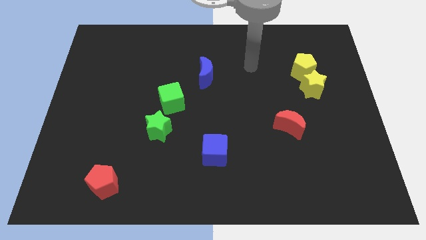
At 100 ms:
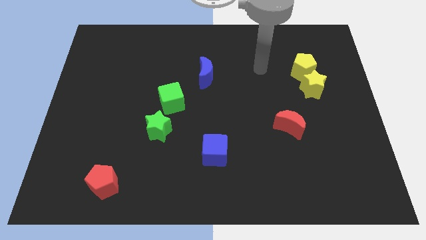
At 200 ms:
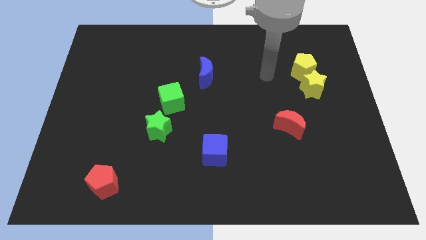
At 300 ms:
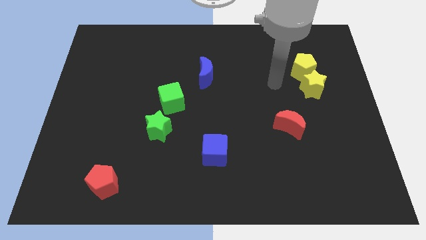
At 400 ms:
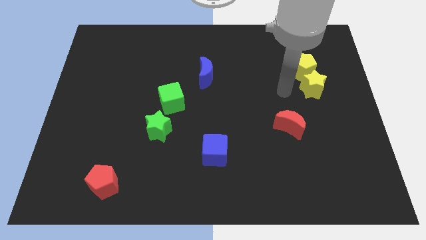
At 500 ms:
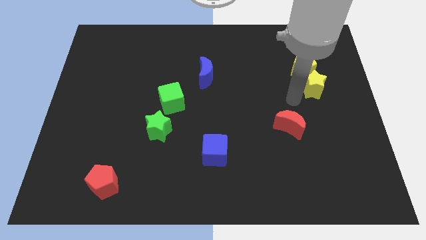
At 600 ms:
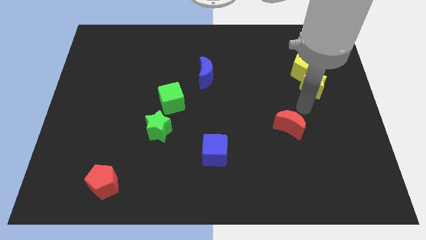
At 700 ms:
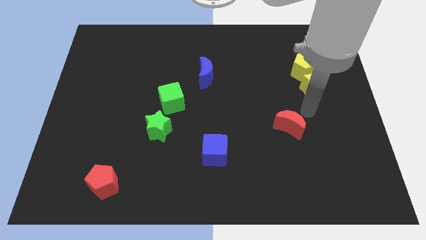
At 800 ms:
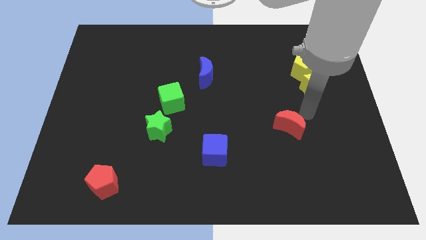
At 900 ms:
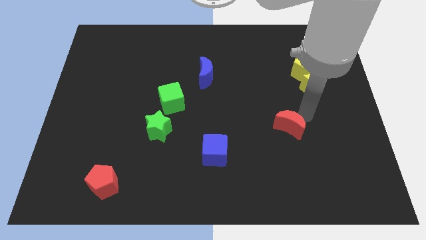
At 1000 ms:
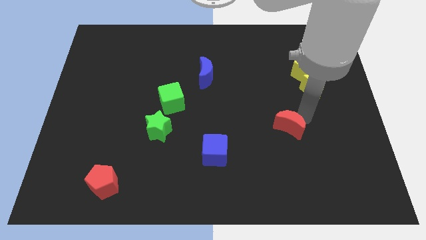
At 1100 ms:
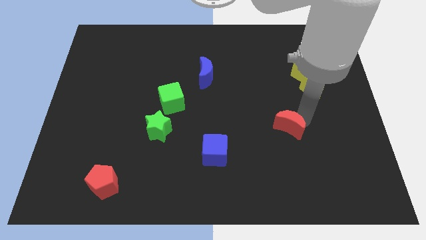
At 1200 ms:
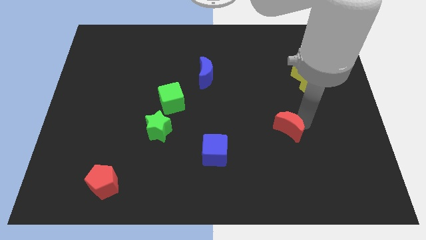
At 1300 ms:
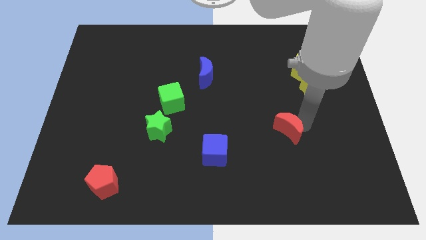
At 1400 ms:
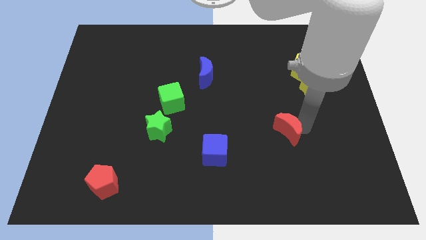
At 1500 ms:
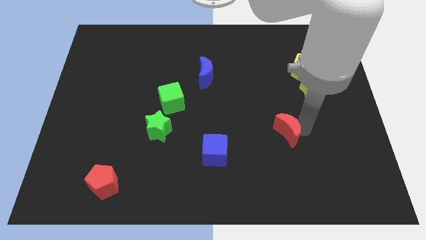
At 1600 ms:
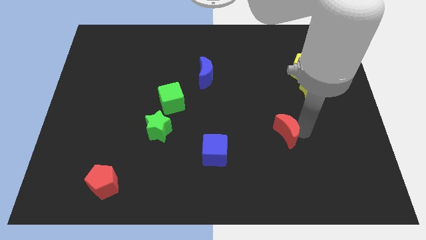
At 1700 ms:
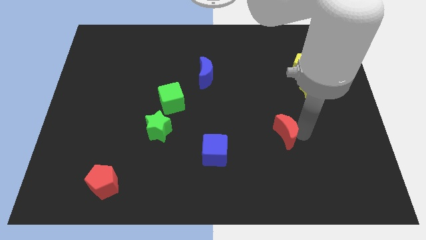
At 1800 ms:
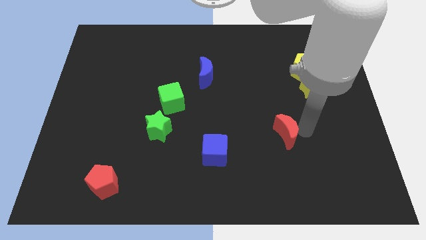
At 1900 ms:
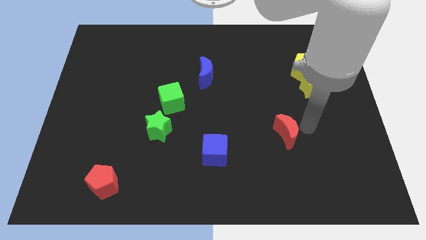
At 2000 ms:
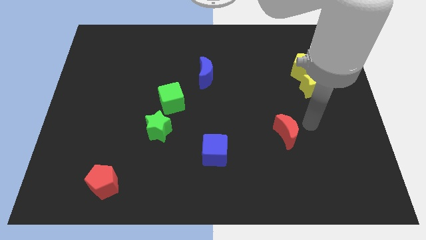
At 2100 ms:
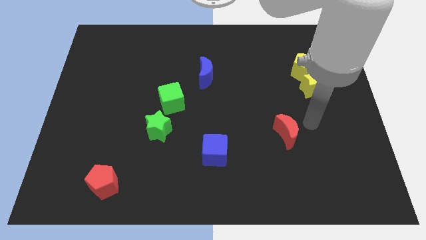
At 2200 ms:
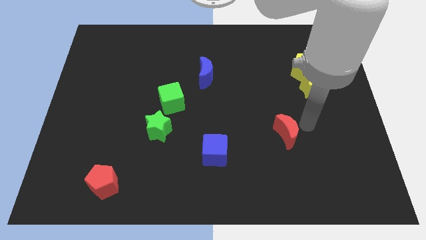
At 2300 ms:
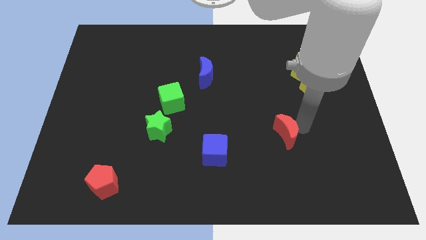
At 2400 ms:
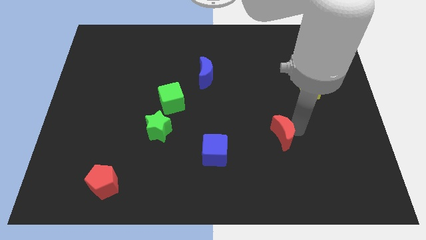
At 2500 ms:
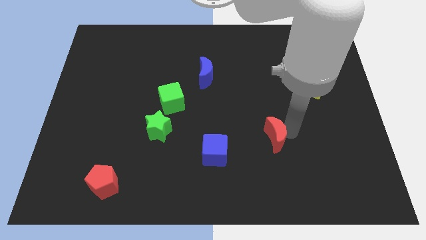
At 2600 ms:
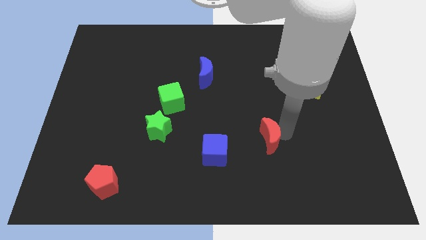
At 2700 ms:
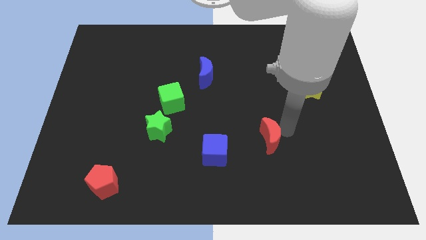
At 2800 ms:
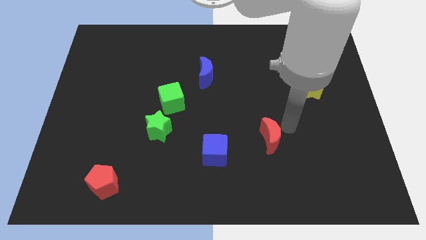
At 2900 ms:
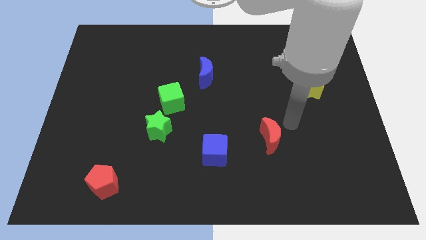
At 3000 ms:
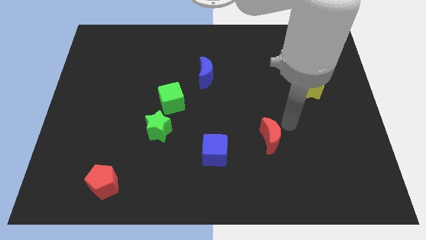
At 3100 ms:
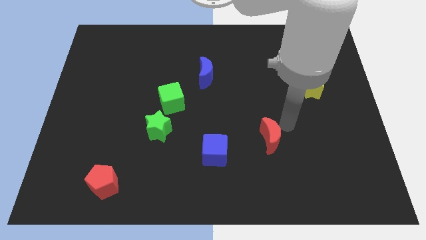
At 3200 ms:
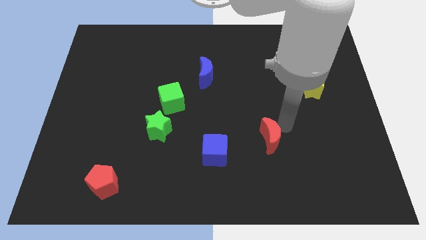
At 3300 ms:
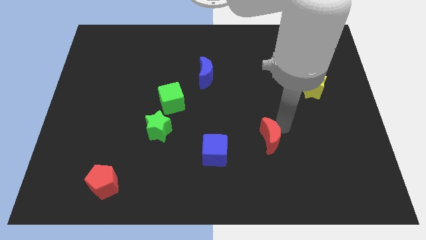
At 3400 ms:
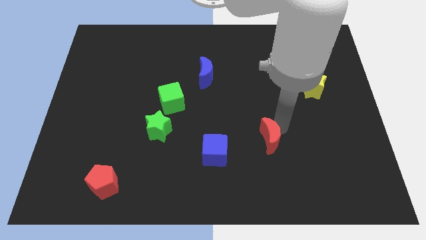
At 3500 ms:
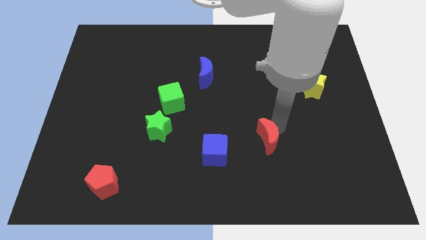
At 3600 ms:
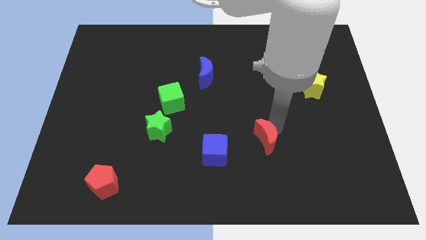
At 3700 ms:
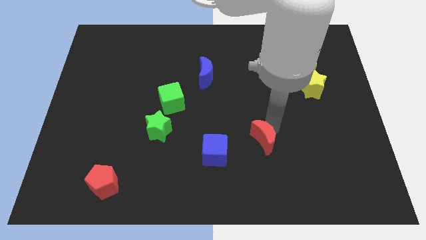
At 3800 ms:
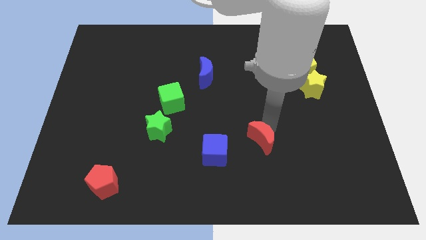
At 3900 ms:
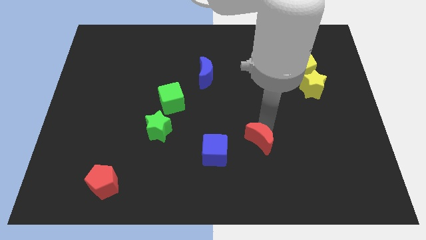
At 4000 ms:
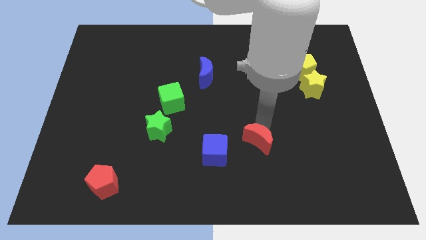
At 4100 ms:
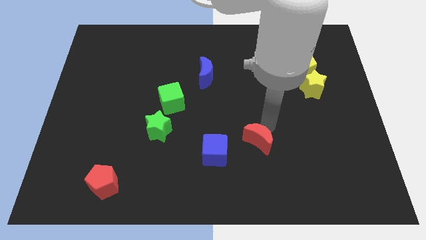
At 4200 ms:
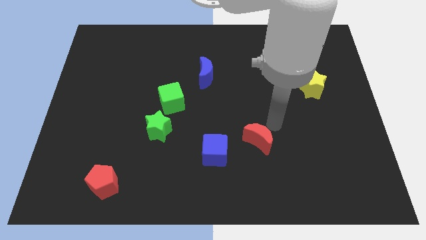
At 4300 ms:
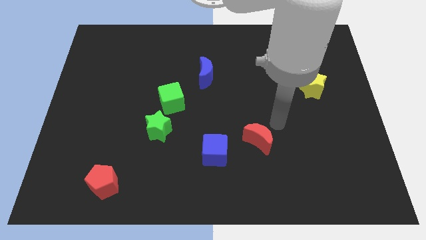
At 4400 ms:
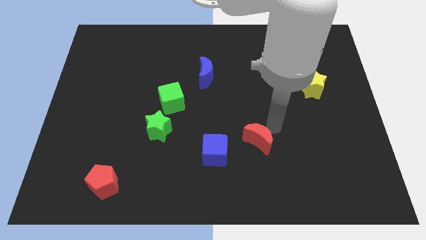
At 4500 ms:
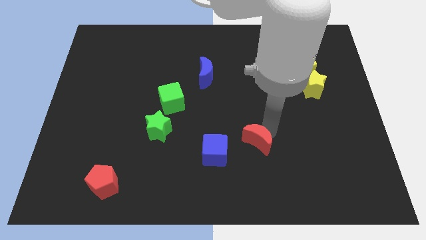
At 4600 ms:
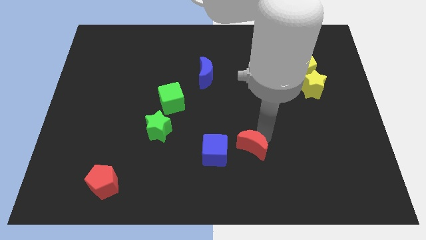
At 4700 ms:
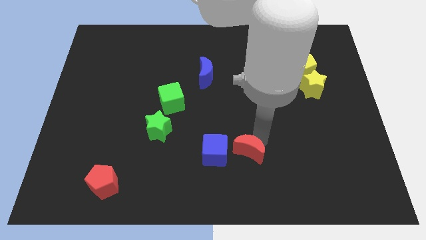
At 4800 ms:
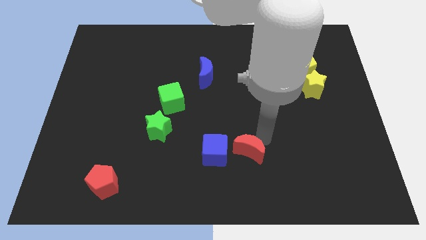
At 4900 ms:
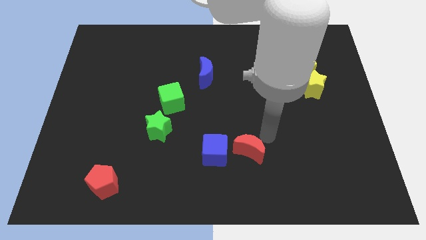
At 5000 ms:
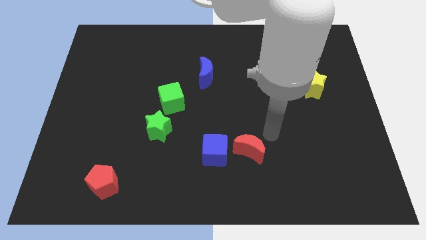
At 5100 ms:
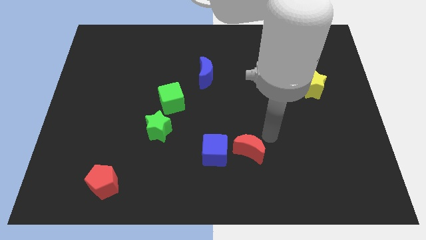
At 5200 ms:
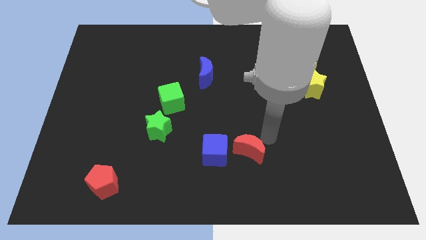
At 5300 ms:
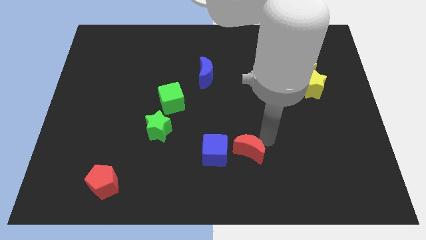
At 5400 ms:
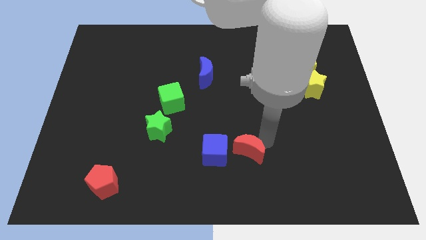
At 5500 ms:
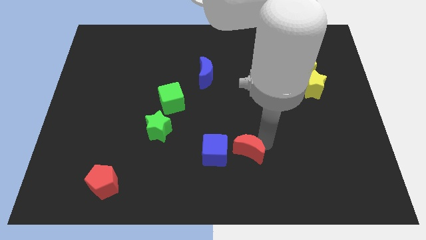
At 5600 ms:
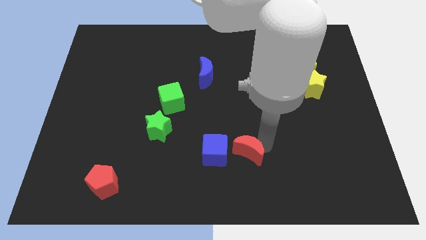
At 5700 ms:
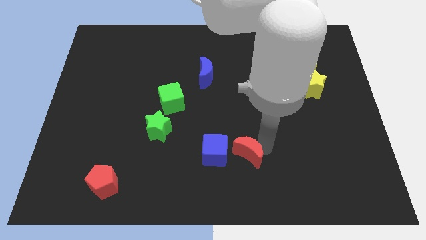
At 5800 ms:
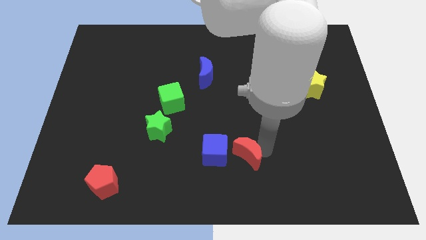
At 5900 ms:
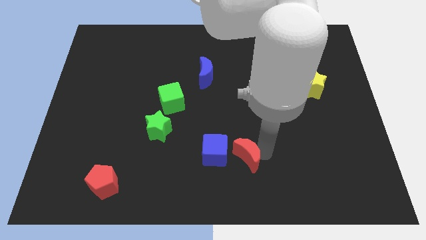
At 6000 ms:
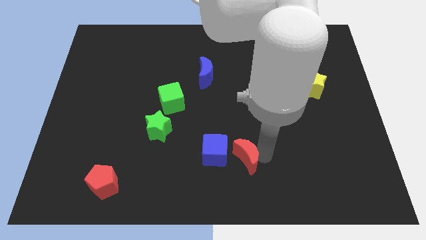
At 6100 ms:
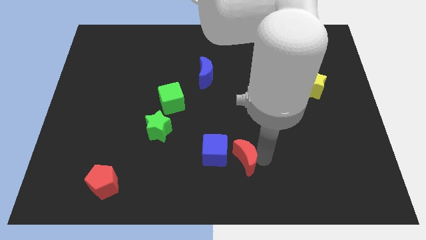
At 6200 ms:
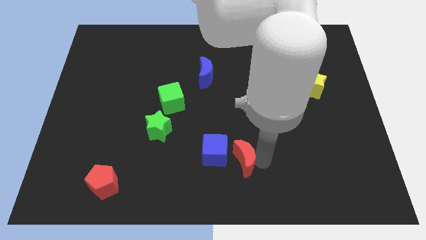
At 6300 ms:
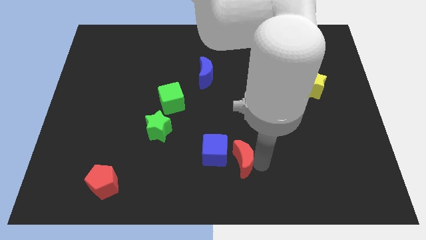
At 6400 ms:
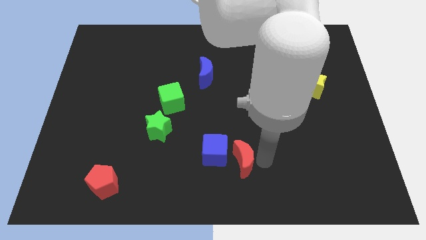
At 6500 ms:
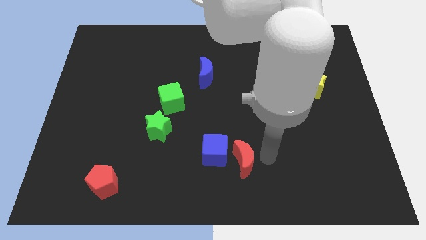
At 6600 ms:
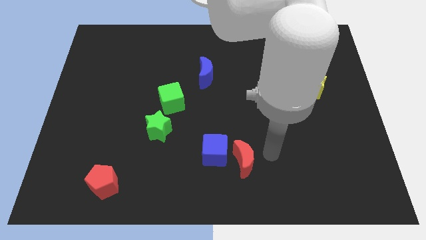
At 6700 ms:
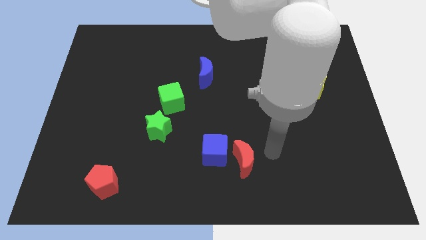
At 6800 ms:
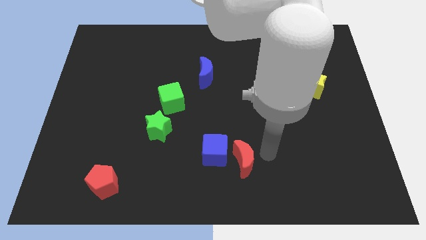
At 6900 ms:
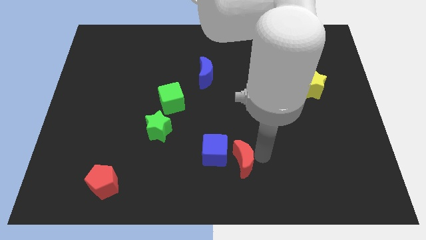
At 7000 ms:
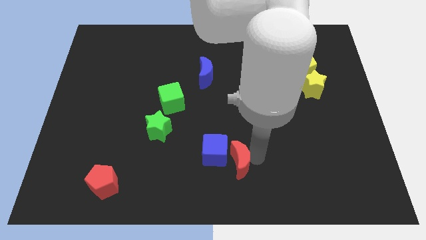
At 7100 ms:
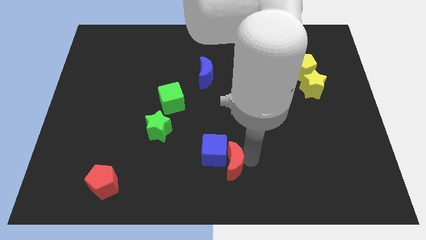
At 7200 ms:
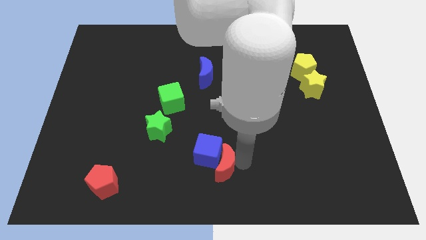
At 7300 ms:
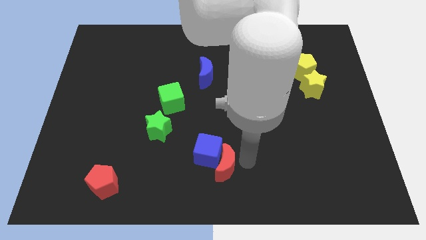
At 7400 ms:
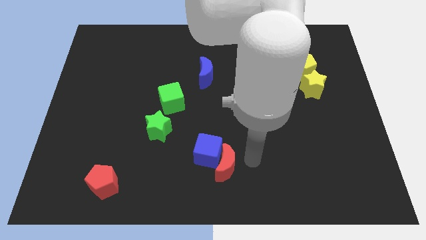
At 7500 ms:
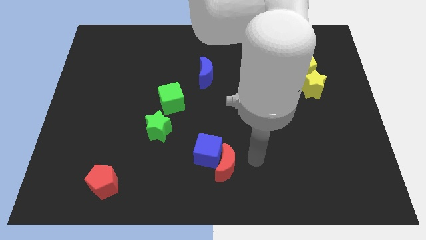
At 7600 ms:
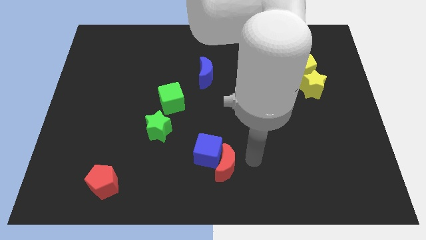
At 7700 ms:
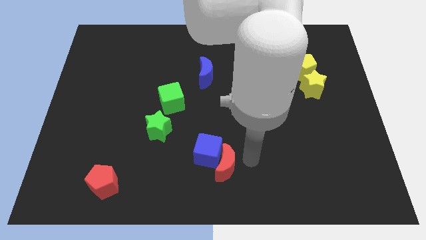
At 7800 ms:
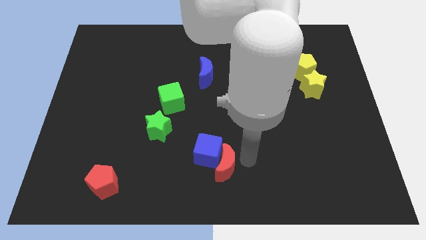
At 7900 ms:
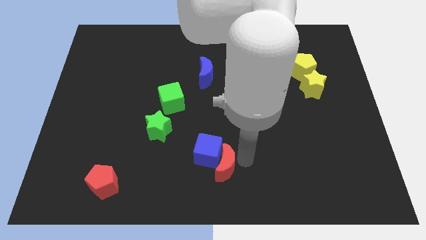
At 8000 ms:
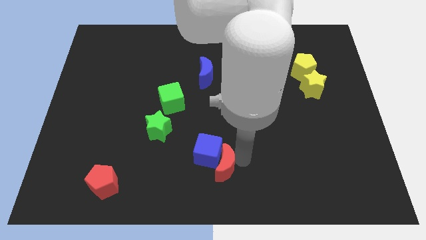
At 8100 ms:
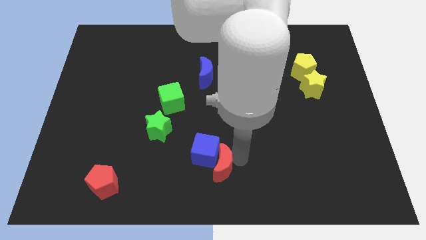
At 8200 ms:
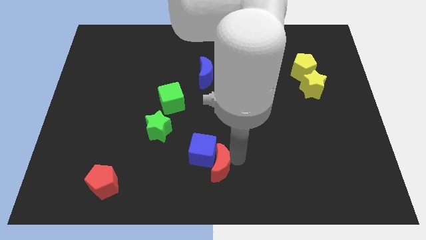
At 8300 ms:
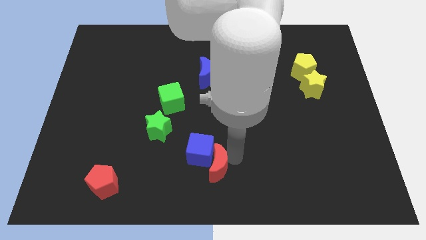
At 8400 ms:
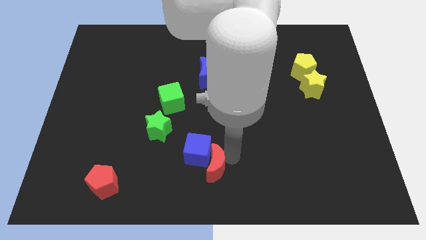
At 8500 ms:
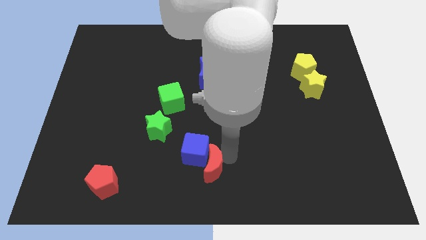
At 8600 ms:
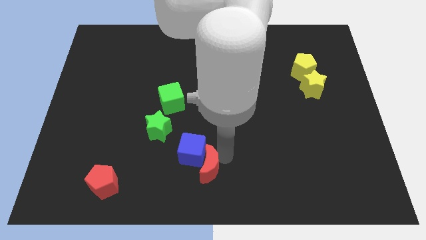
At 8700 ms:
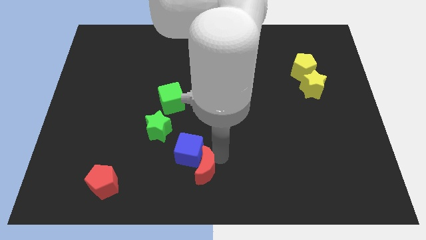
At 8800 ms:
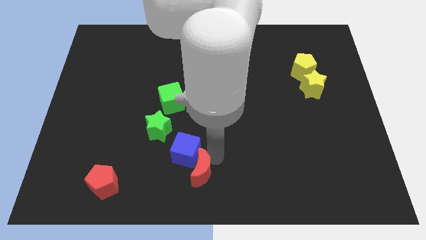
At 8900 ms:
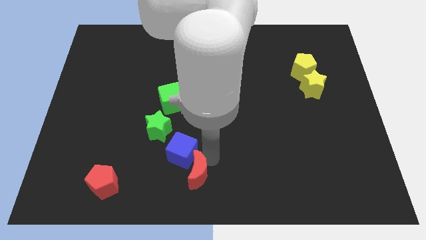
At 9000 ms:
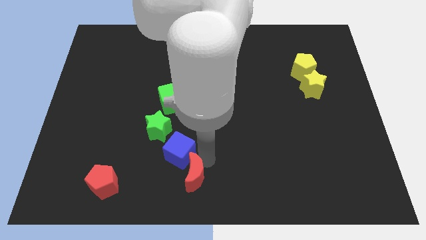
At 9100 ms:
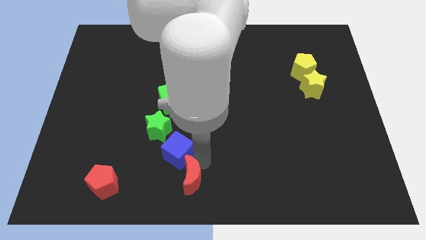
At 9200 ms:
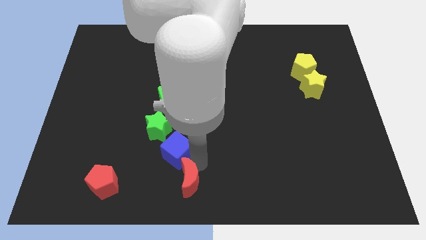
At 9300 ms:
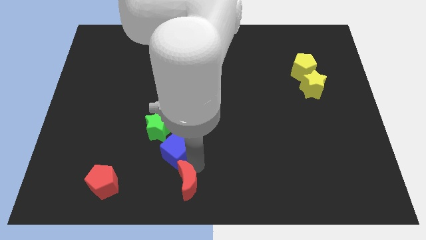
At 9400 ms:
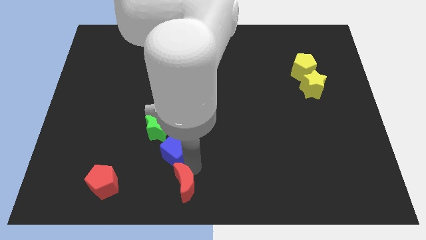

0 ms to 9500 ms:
push the red moon to the right side of the red pentagon
